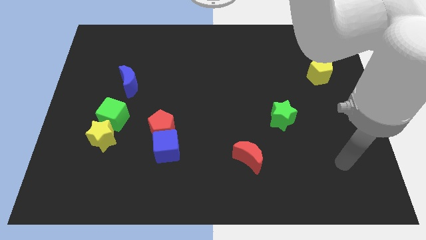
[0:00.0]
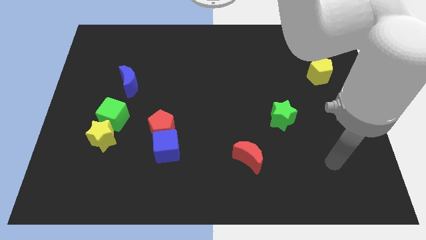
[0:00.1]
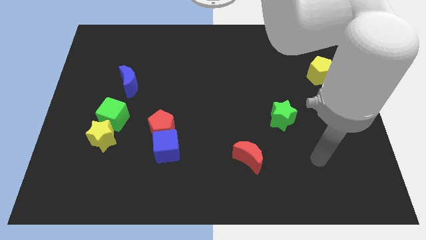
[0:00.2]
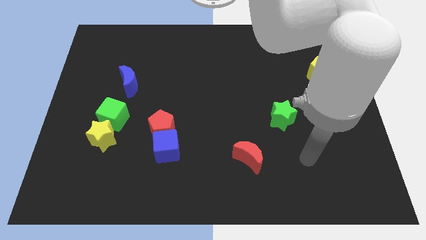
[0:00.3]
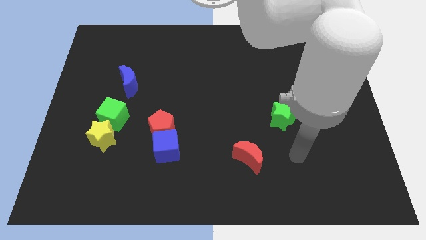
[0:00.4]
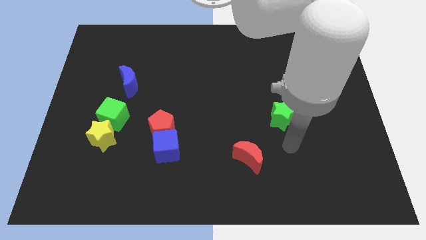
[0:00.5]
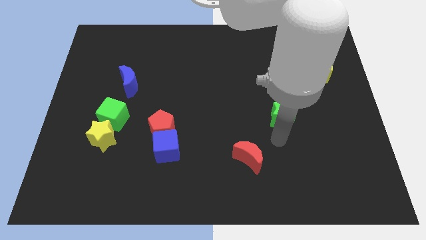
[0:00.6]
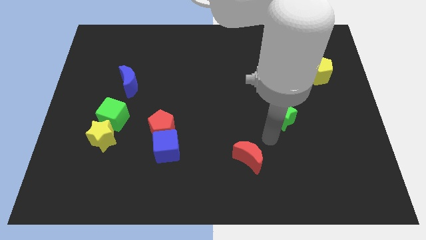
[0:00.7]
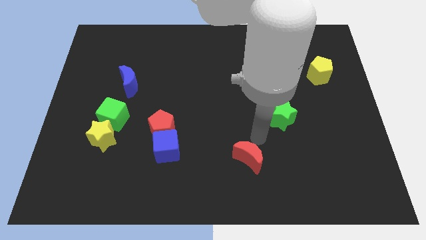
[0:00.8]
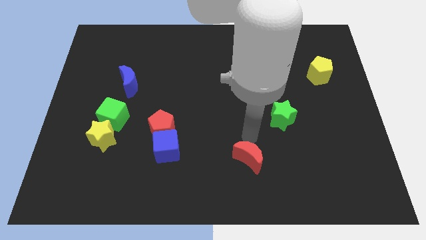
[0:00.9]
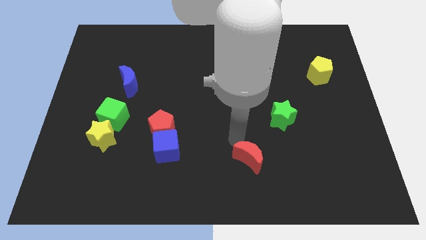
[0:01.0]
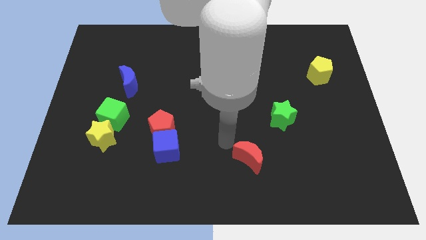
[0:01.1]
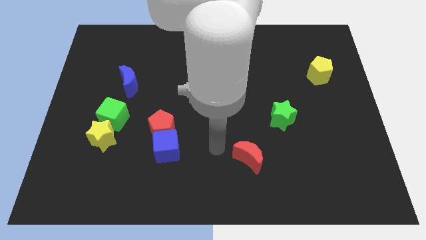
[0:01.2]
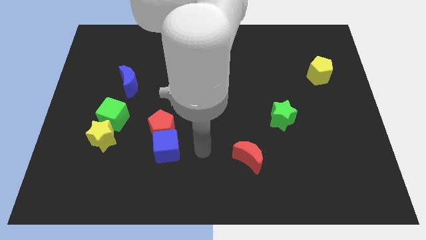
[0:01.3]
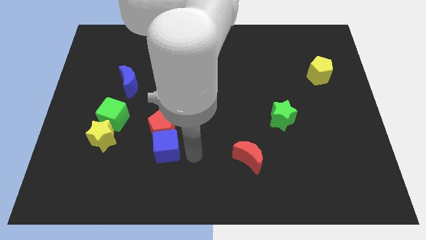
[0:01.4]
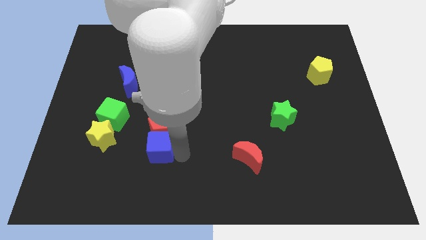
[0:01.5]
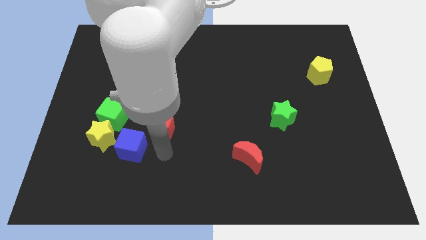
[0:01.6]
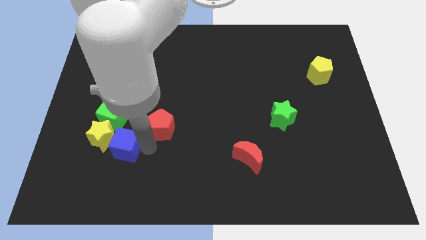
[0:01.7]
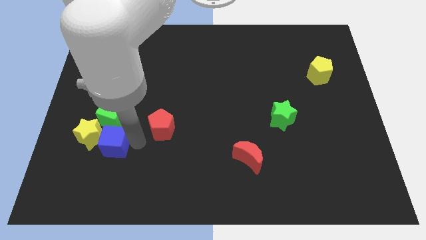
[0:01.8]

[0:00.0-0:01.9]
separate the red pentagon from the blue cube

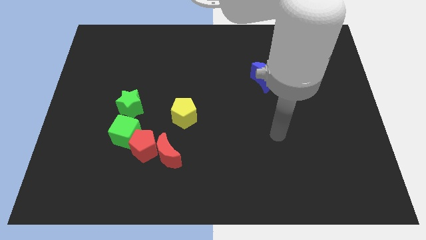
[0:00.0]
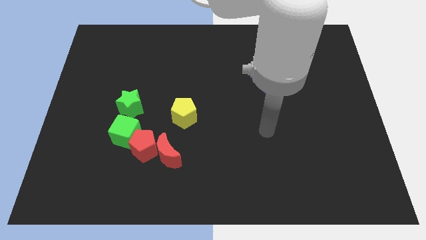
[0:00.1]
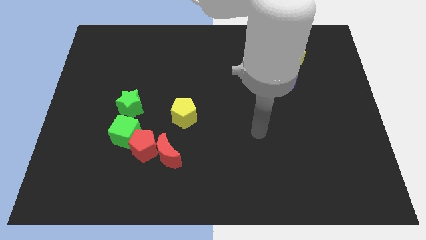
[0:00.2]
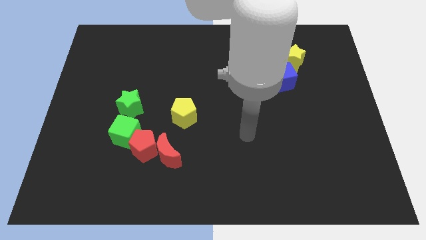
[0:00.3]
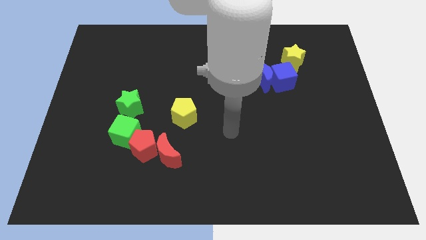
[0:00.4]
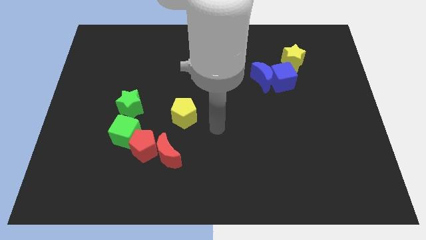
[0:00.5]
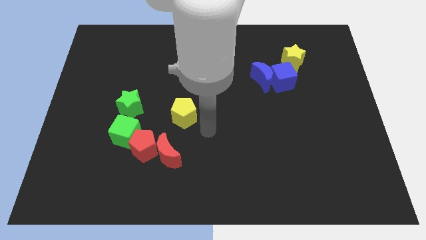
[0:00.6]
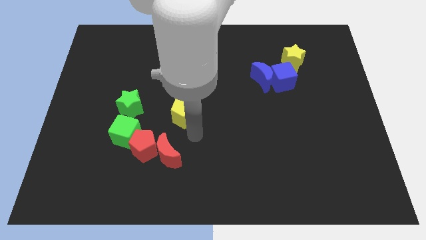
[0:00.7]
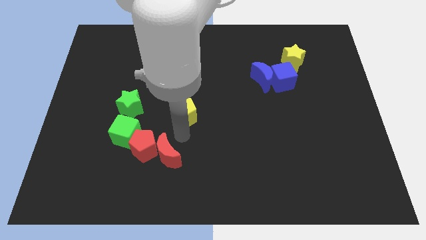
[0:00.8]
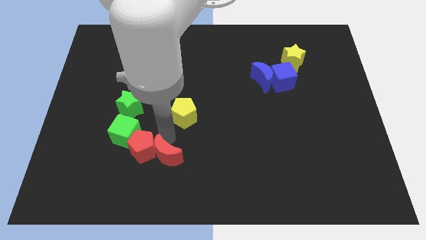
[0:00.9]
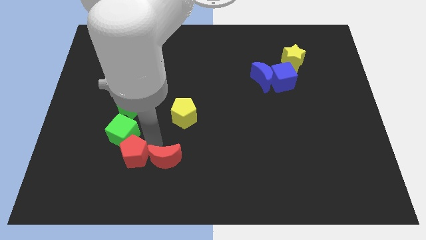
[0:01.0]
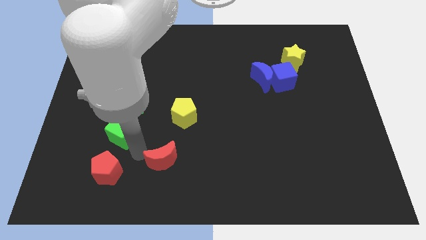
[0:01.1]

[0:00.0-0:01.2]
move the red moon away from the red pentagon

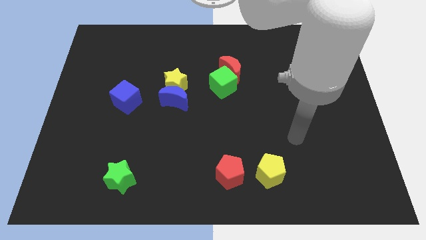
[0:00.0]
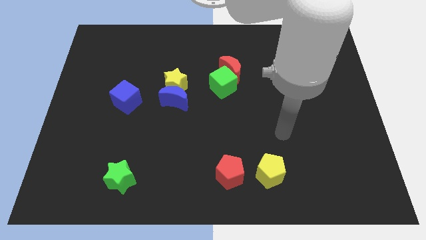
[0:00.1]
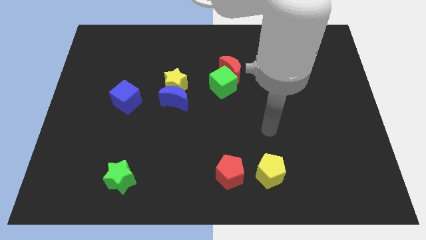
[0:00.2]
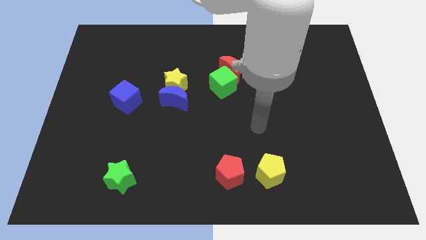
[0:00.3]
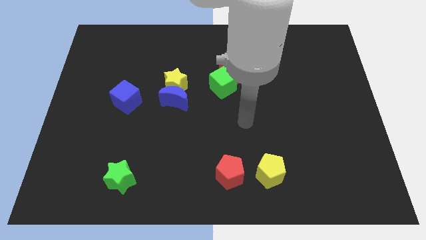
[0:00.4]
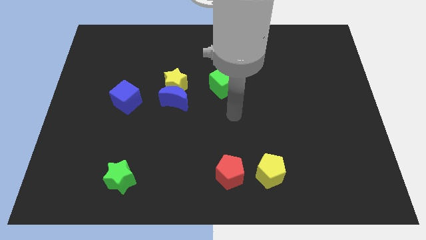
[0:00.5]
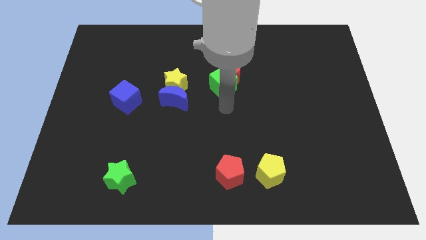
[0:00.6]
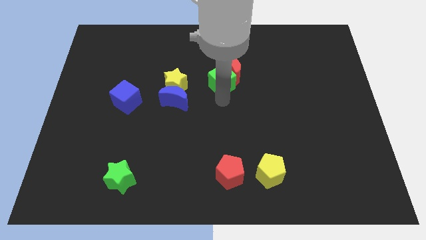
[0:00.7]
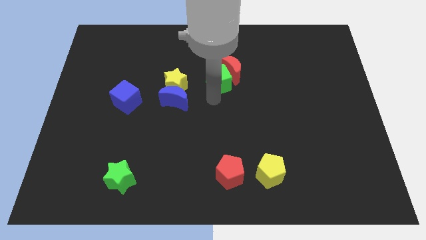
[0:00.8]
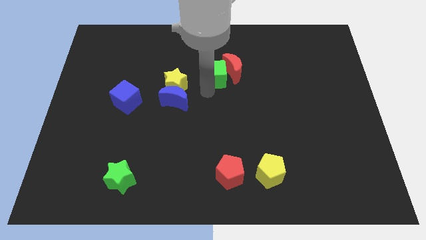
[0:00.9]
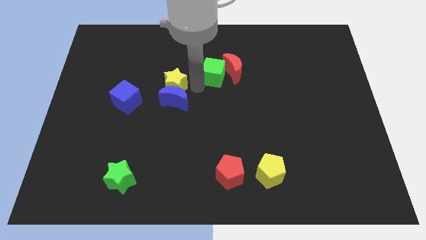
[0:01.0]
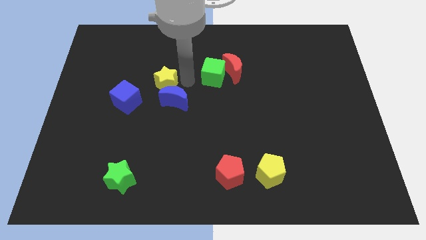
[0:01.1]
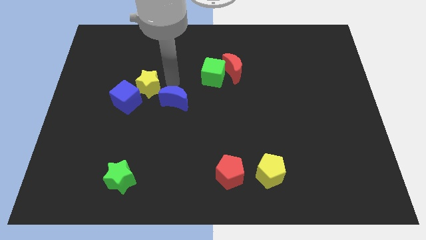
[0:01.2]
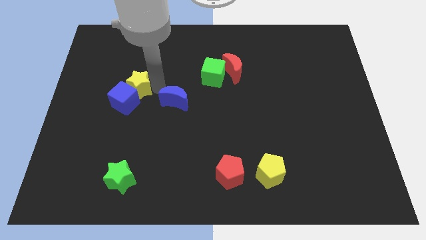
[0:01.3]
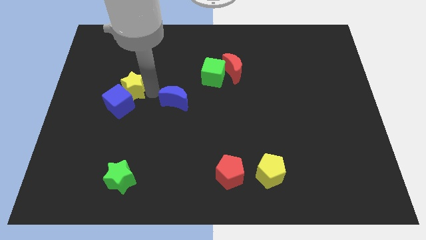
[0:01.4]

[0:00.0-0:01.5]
move the blue moon away from the yellow star

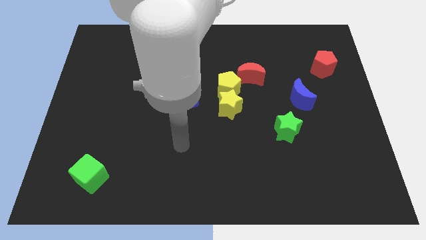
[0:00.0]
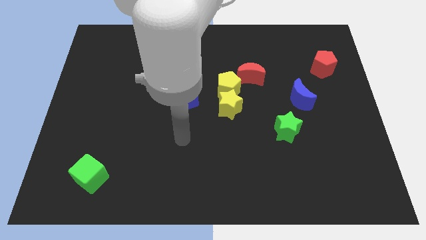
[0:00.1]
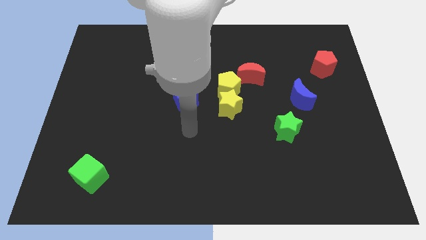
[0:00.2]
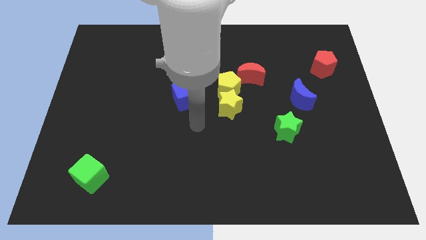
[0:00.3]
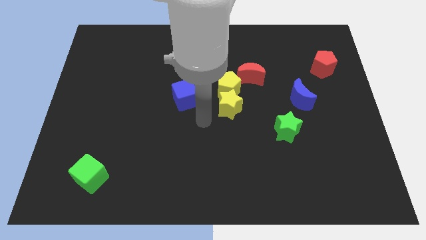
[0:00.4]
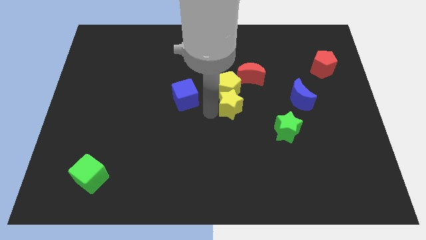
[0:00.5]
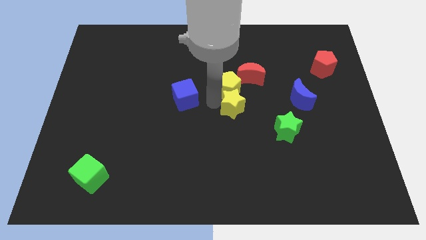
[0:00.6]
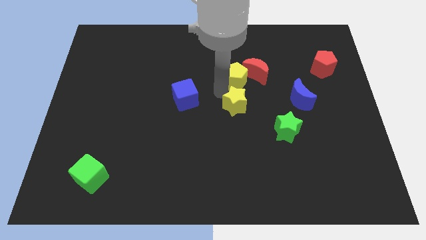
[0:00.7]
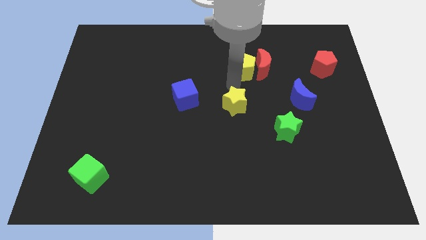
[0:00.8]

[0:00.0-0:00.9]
move the yellow star away from the yellow pentagon

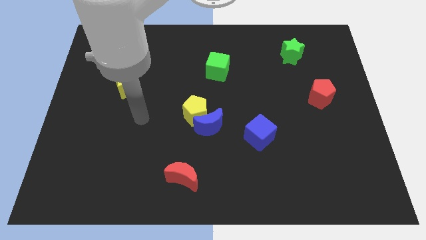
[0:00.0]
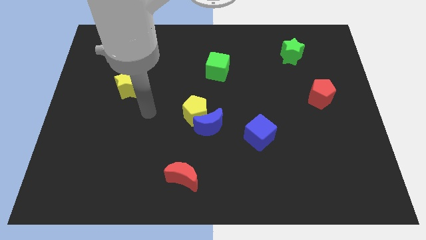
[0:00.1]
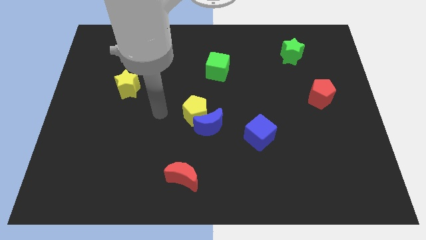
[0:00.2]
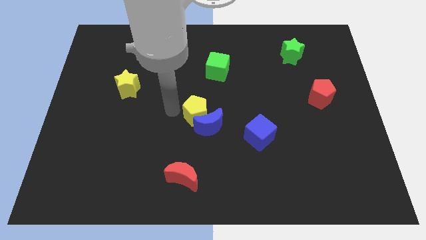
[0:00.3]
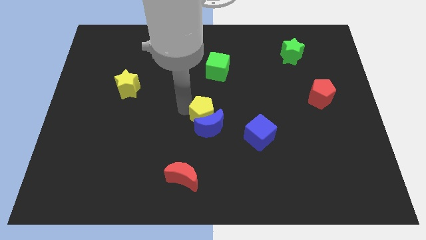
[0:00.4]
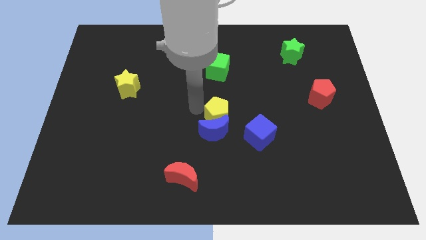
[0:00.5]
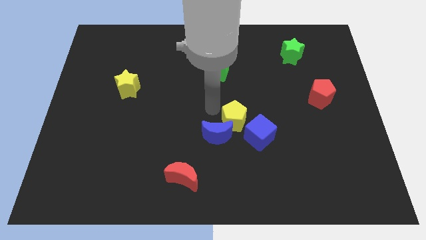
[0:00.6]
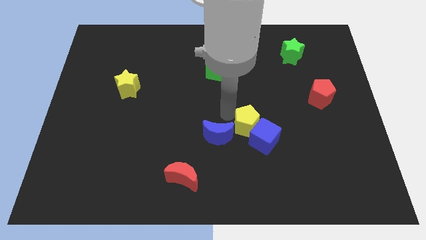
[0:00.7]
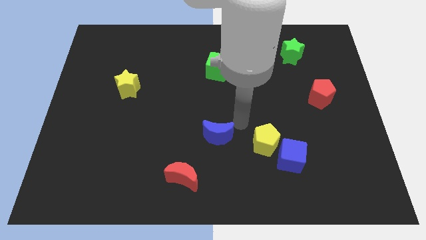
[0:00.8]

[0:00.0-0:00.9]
move the blue moon away from the yellow pentagon

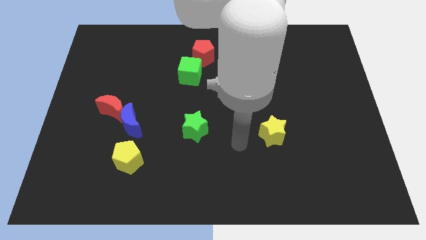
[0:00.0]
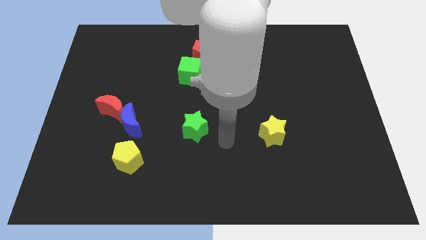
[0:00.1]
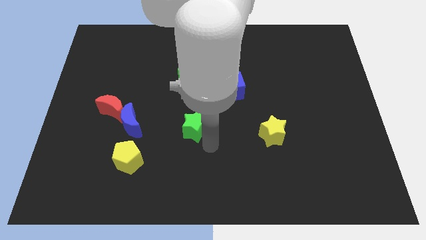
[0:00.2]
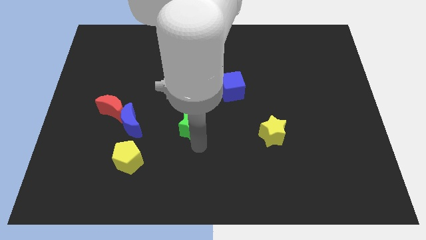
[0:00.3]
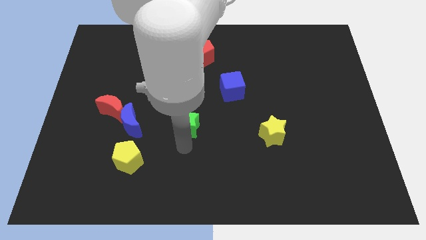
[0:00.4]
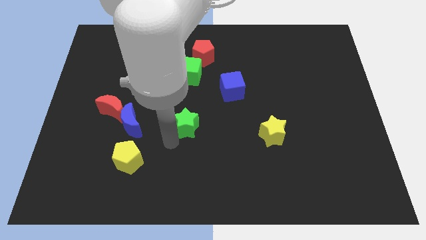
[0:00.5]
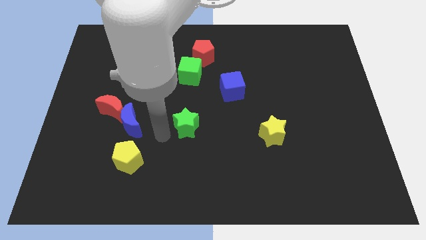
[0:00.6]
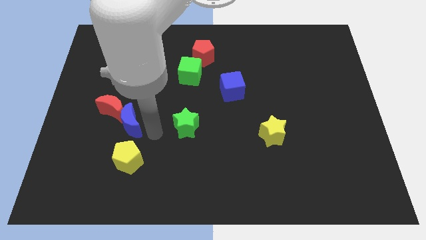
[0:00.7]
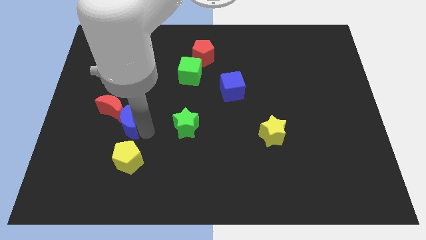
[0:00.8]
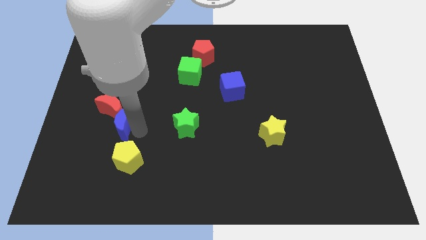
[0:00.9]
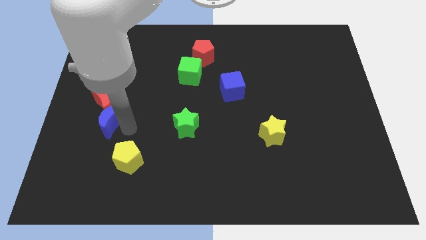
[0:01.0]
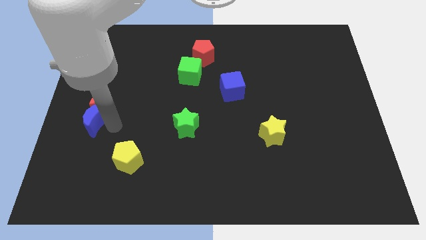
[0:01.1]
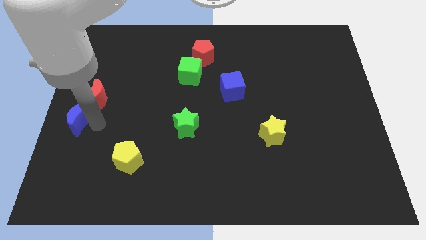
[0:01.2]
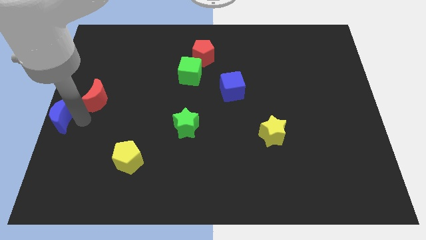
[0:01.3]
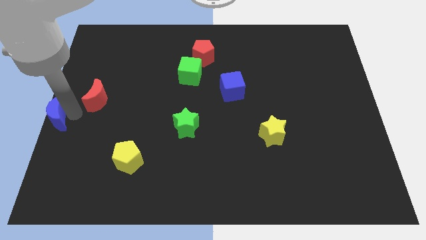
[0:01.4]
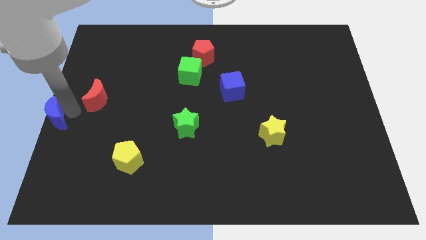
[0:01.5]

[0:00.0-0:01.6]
move the red moon away from the blue moon

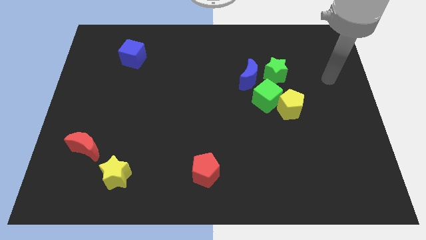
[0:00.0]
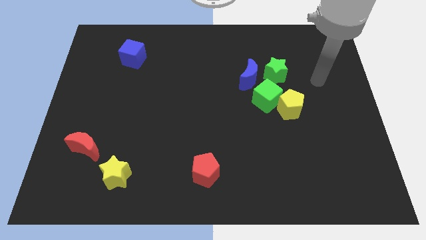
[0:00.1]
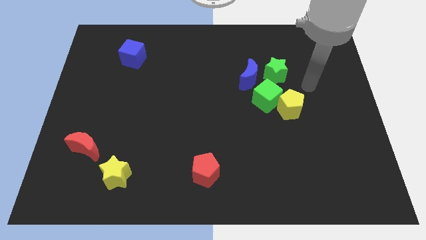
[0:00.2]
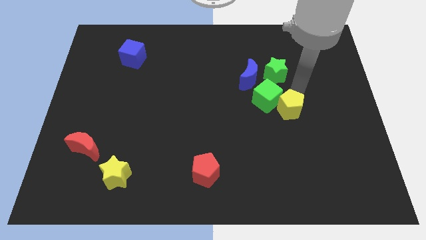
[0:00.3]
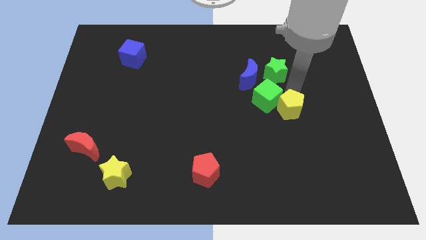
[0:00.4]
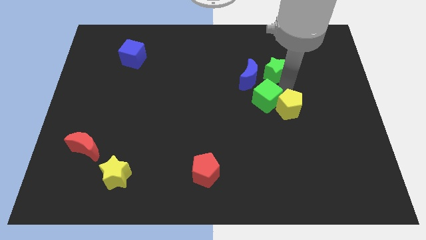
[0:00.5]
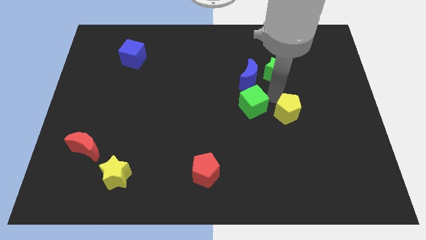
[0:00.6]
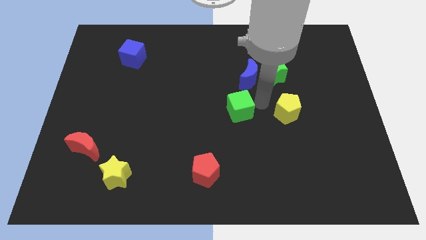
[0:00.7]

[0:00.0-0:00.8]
pull the yellow pentagon apart from the green cube

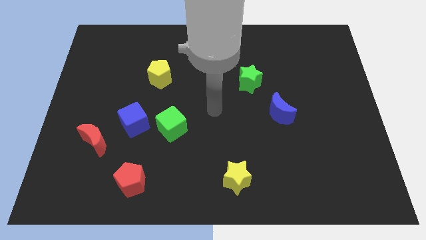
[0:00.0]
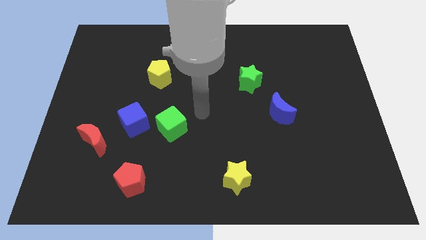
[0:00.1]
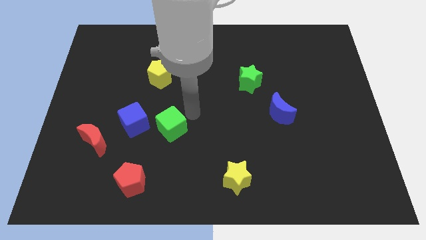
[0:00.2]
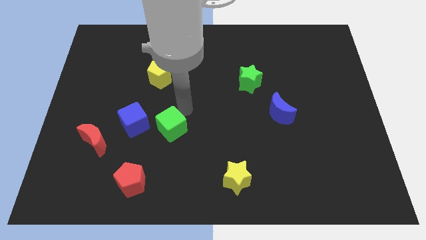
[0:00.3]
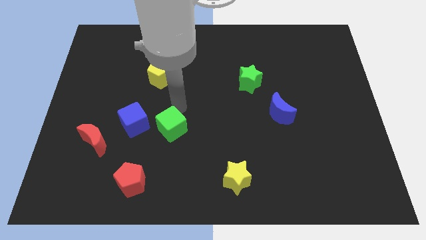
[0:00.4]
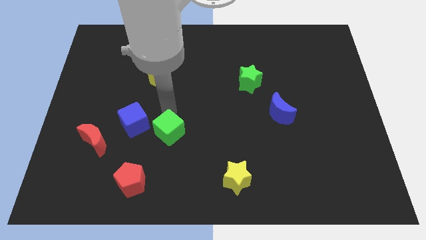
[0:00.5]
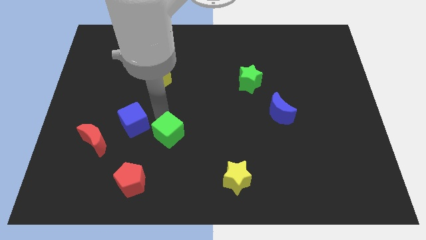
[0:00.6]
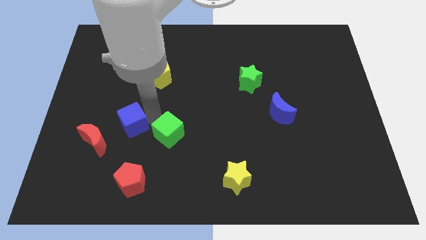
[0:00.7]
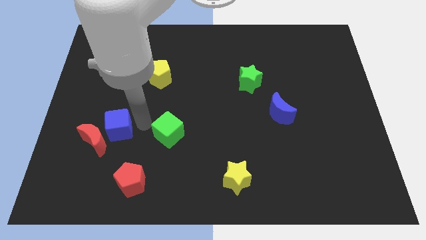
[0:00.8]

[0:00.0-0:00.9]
pull the green cube apart from the blue cube
